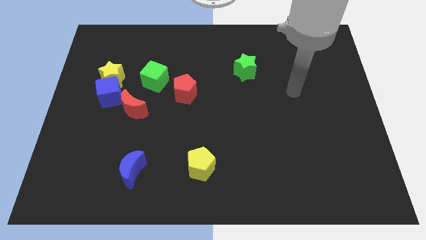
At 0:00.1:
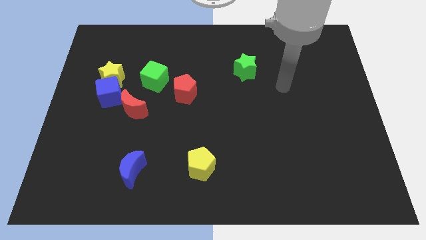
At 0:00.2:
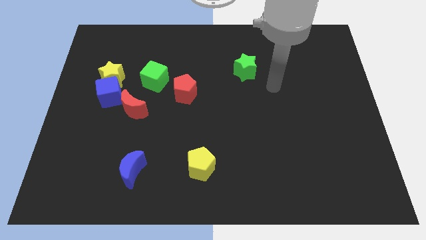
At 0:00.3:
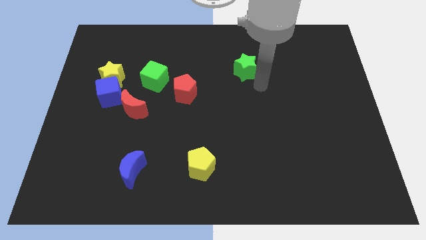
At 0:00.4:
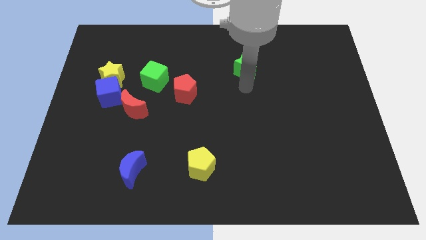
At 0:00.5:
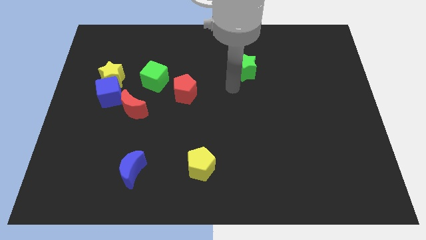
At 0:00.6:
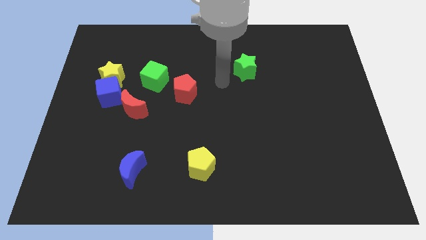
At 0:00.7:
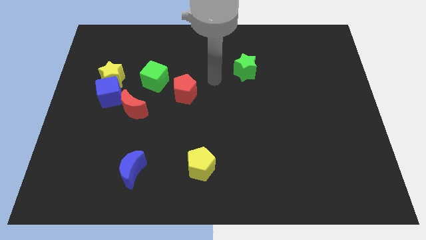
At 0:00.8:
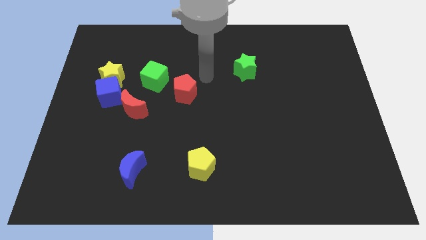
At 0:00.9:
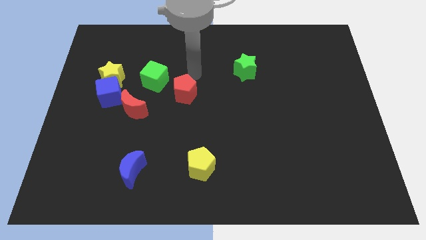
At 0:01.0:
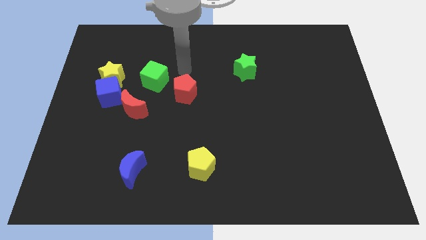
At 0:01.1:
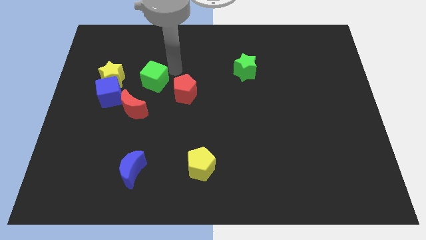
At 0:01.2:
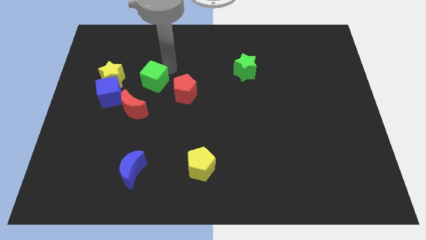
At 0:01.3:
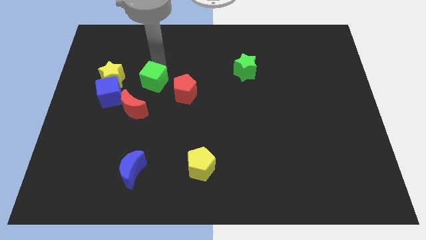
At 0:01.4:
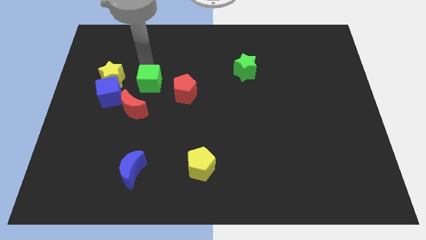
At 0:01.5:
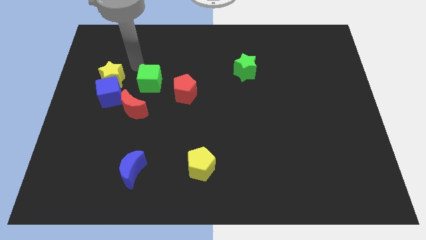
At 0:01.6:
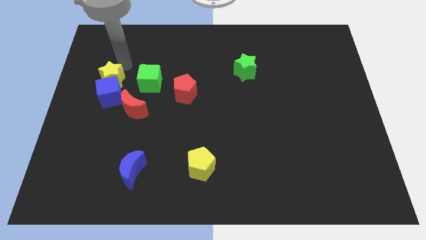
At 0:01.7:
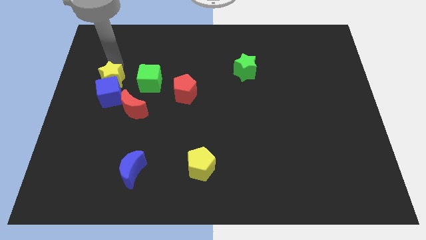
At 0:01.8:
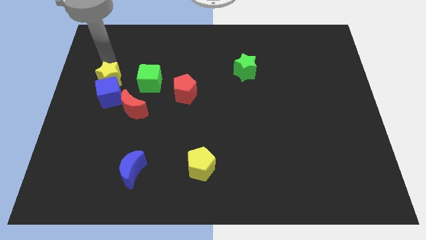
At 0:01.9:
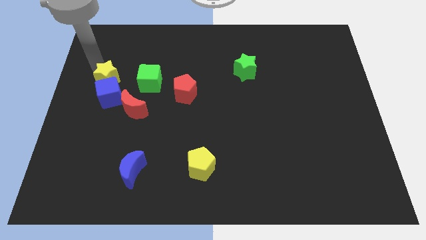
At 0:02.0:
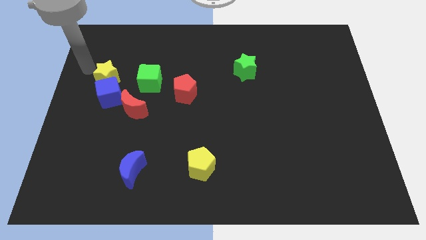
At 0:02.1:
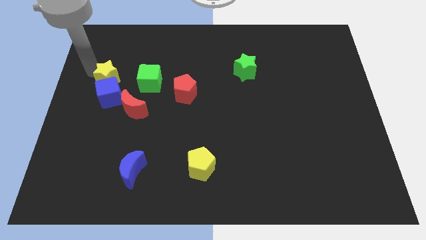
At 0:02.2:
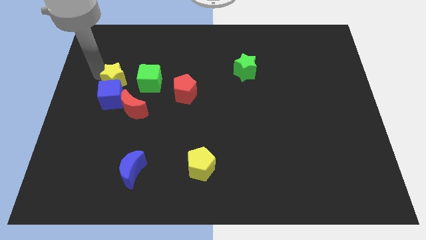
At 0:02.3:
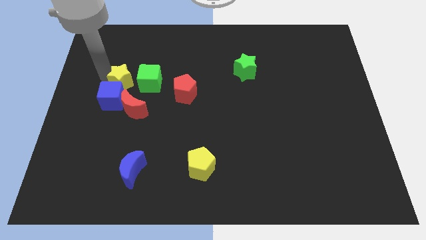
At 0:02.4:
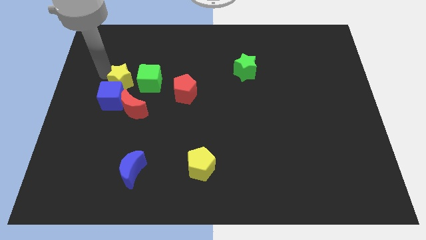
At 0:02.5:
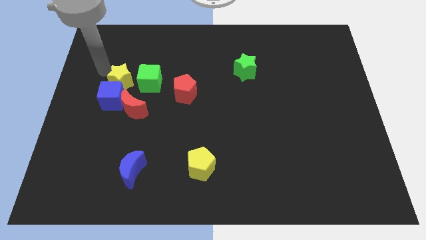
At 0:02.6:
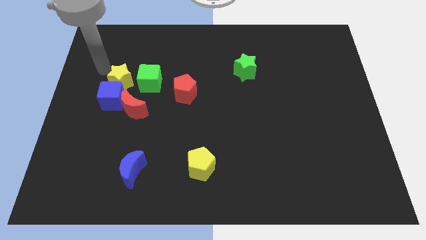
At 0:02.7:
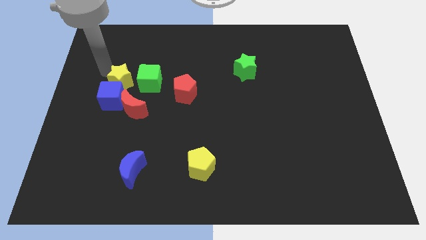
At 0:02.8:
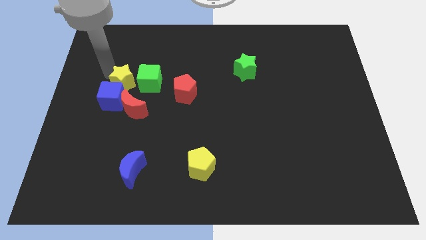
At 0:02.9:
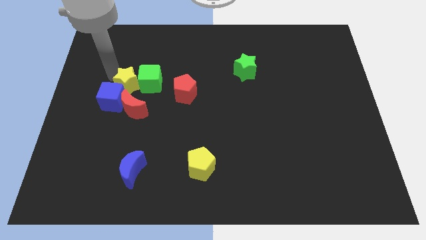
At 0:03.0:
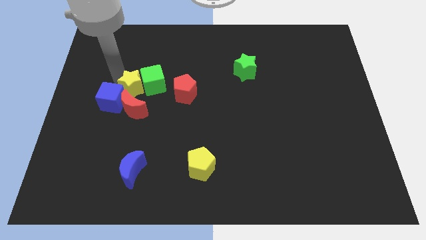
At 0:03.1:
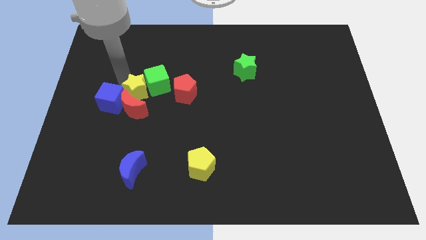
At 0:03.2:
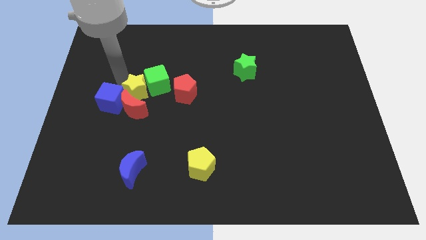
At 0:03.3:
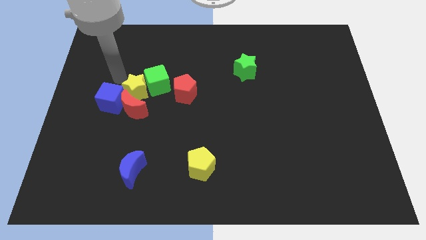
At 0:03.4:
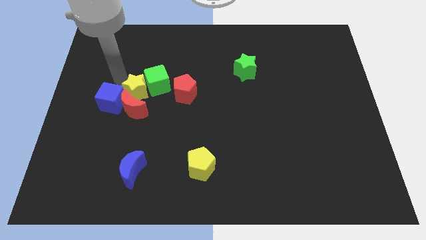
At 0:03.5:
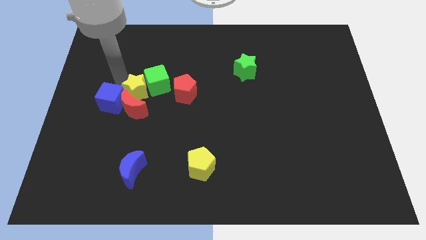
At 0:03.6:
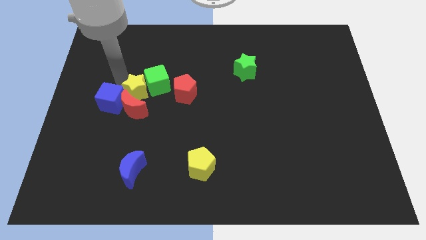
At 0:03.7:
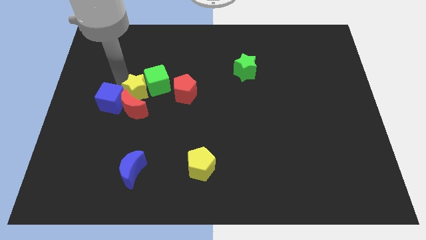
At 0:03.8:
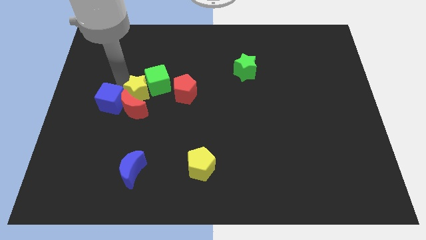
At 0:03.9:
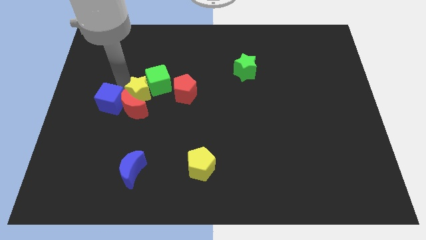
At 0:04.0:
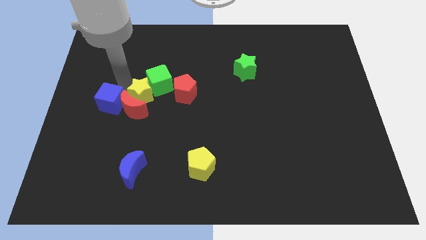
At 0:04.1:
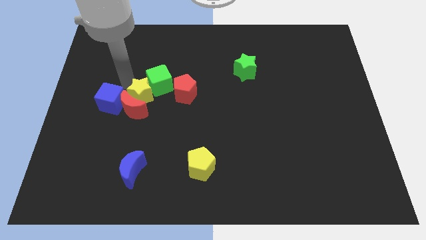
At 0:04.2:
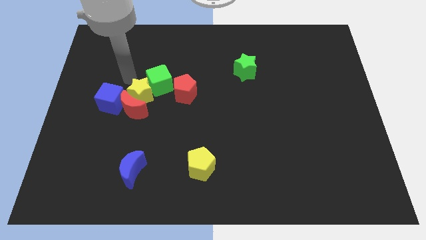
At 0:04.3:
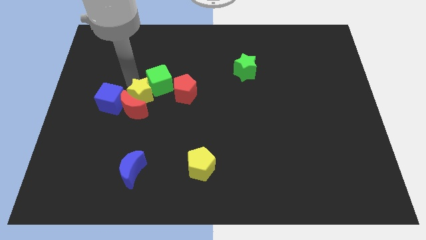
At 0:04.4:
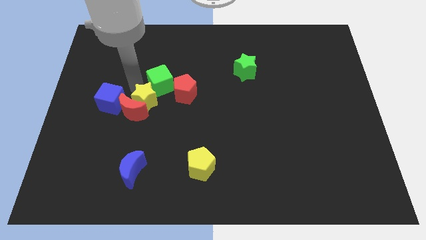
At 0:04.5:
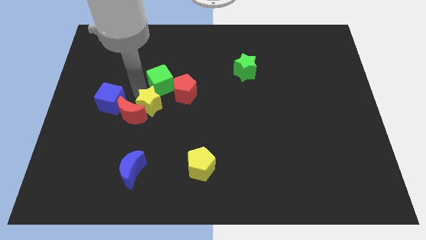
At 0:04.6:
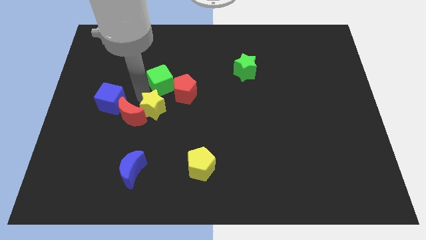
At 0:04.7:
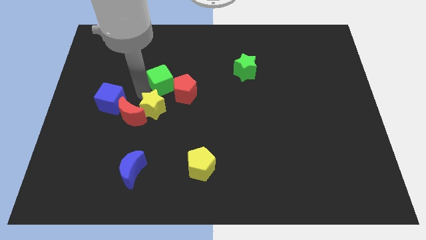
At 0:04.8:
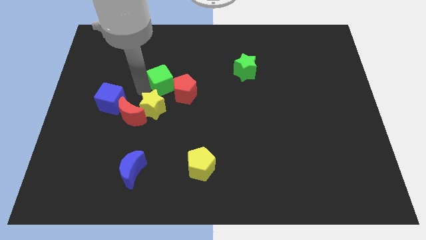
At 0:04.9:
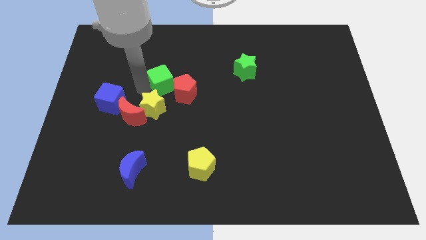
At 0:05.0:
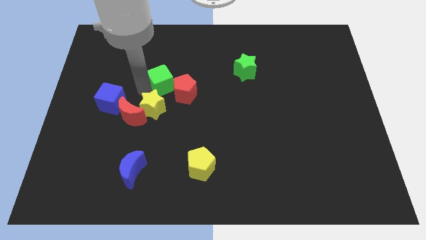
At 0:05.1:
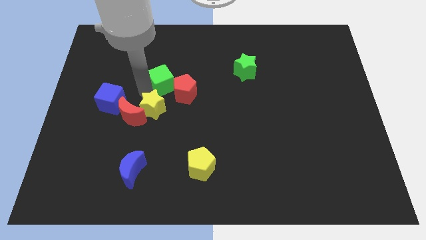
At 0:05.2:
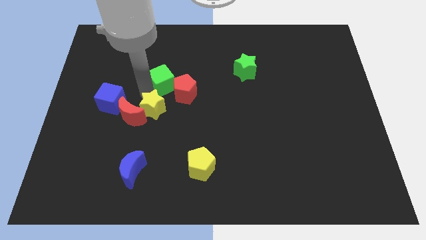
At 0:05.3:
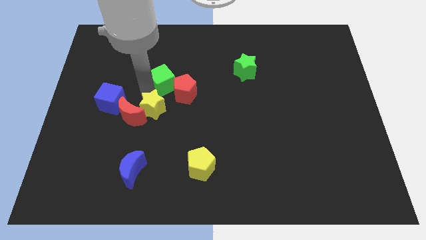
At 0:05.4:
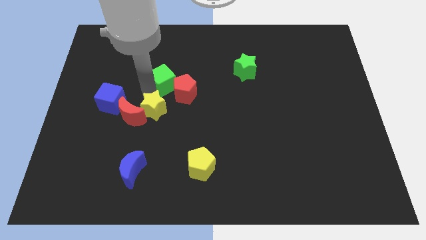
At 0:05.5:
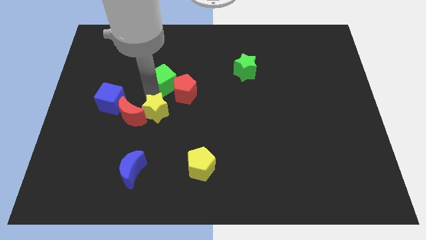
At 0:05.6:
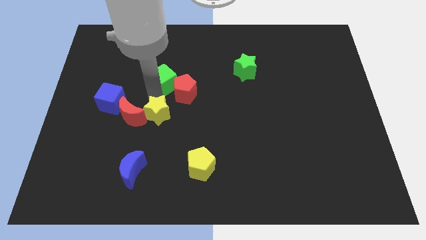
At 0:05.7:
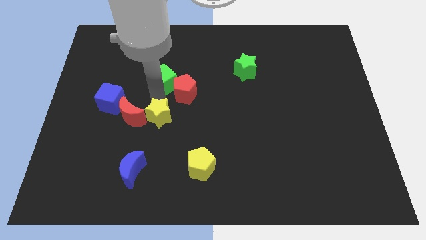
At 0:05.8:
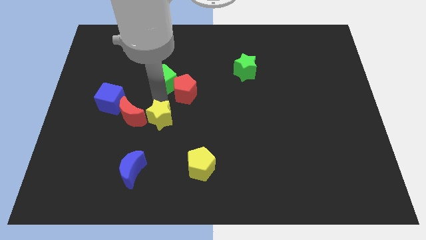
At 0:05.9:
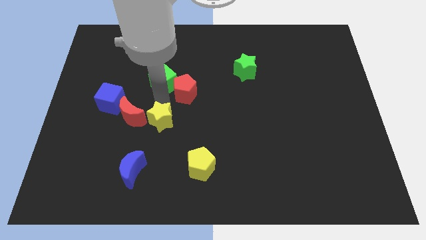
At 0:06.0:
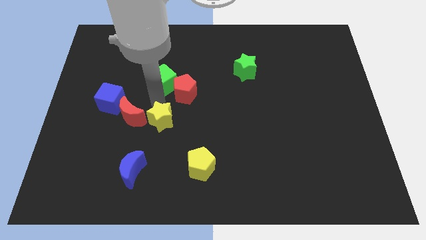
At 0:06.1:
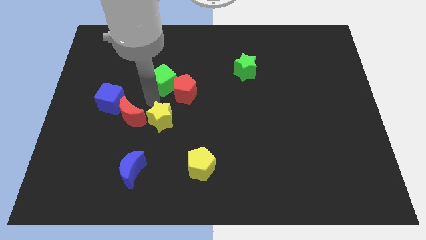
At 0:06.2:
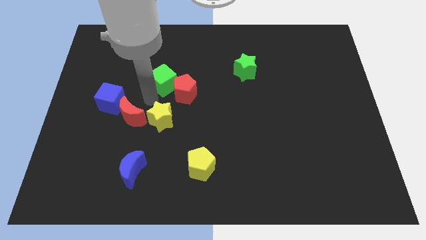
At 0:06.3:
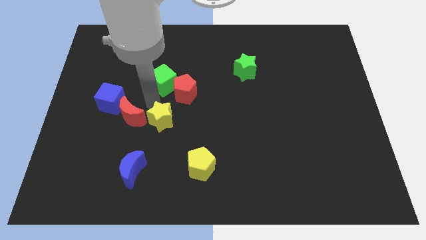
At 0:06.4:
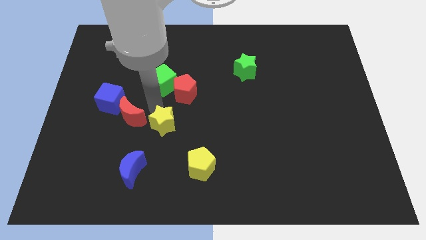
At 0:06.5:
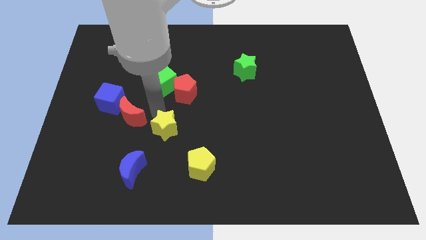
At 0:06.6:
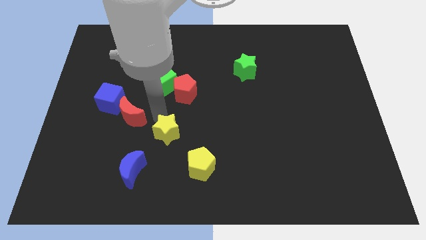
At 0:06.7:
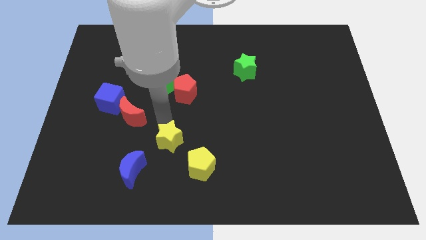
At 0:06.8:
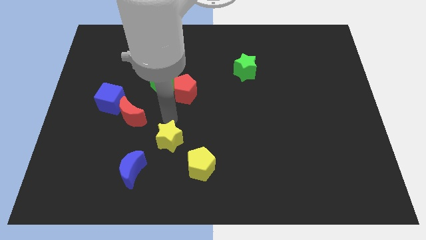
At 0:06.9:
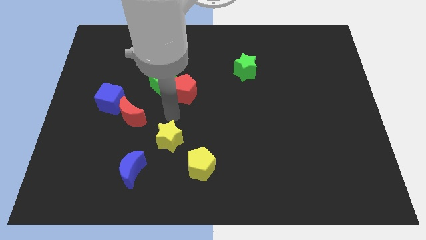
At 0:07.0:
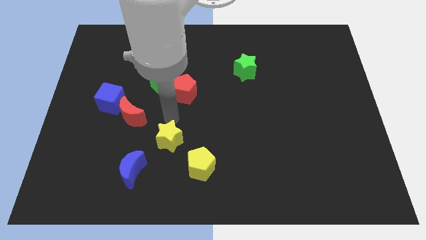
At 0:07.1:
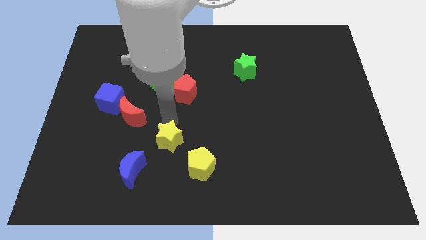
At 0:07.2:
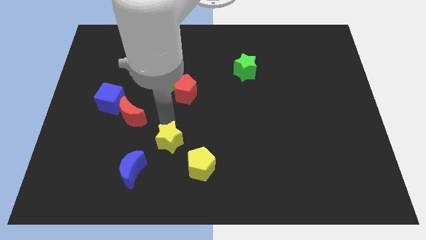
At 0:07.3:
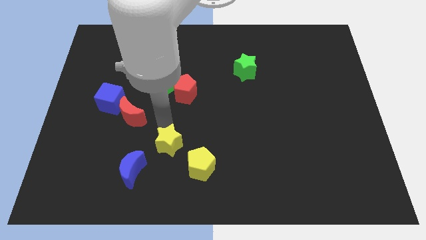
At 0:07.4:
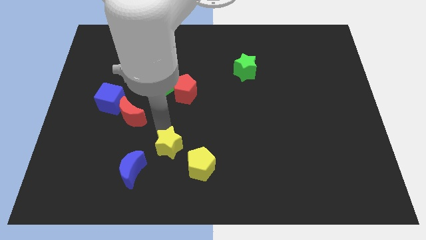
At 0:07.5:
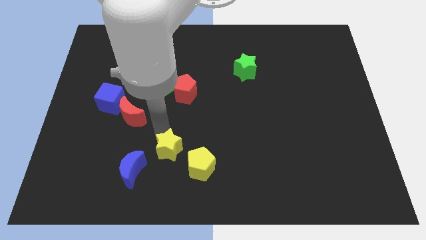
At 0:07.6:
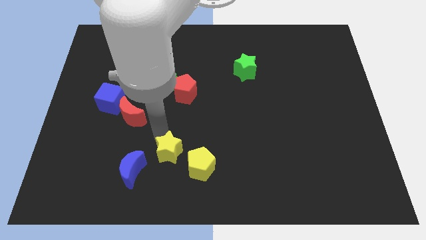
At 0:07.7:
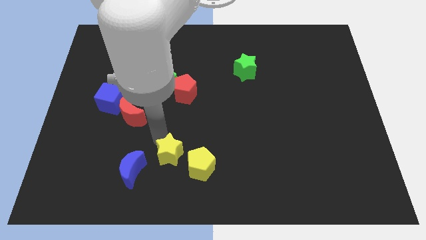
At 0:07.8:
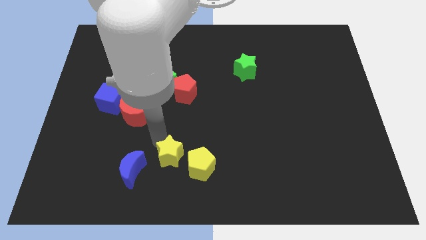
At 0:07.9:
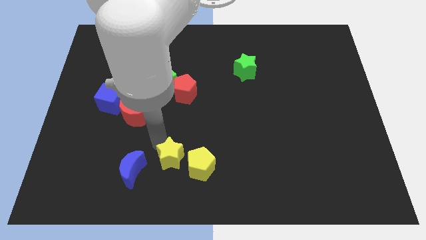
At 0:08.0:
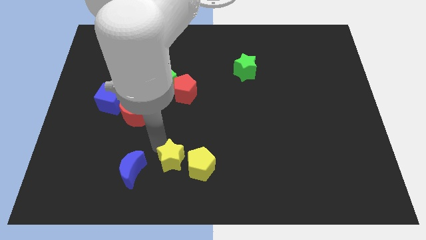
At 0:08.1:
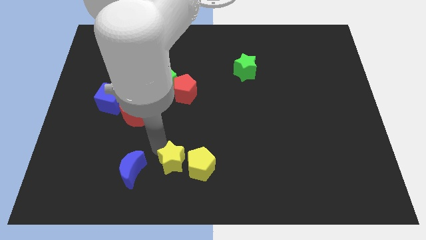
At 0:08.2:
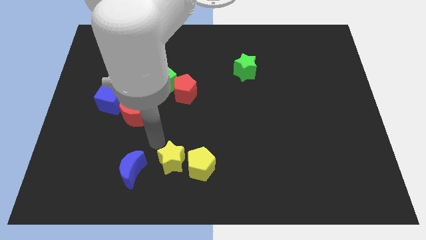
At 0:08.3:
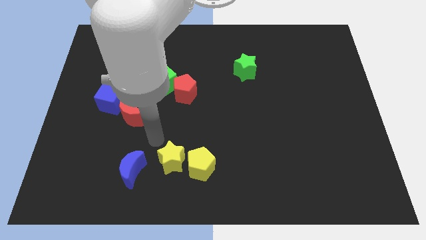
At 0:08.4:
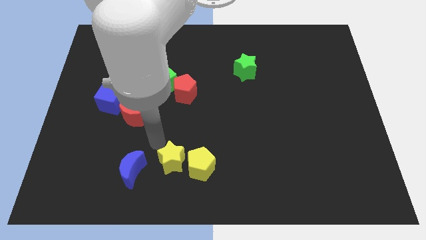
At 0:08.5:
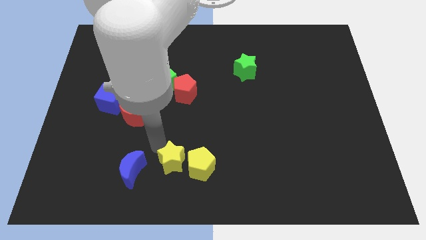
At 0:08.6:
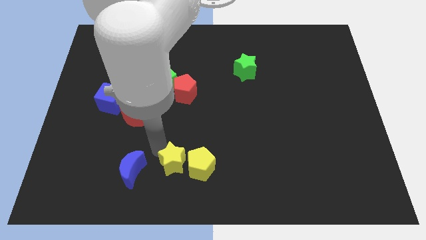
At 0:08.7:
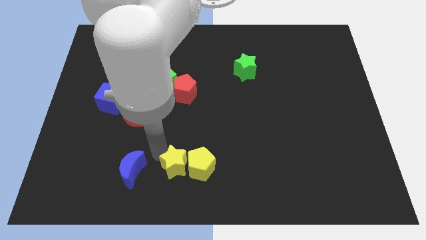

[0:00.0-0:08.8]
put the yellow star to the bottom side
